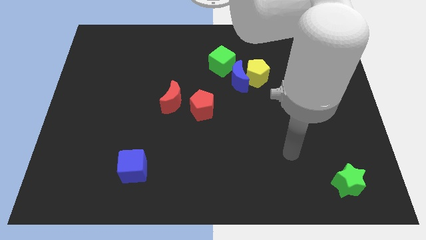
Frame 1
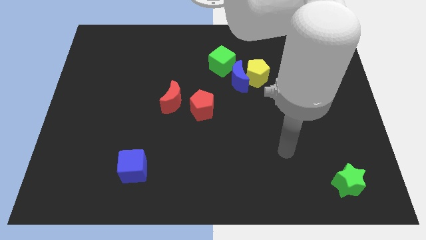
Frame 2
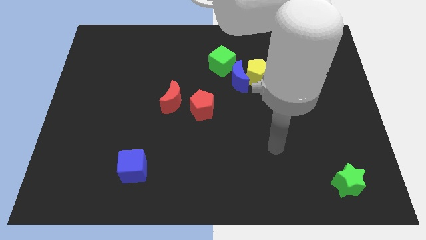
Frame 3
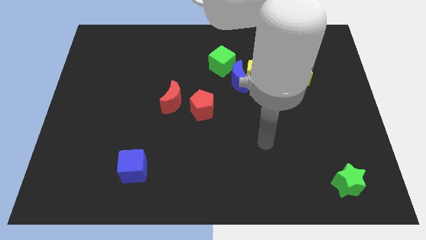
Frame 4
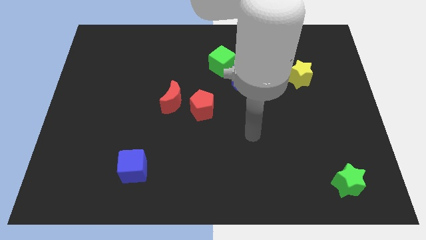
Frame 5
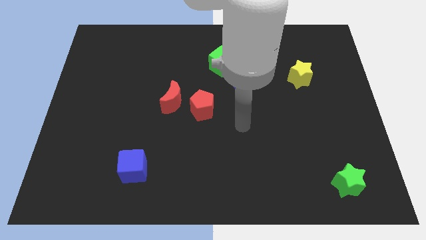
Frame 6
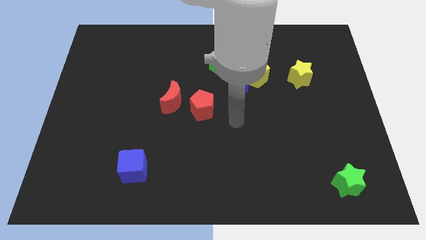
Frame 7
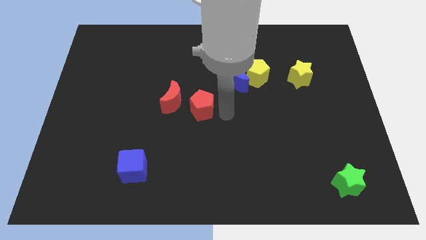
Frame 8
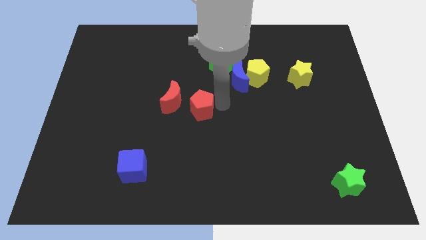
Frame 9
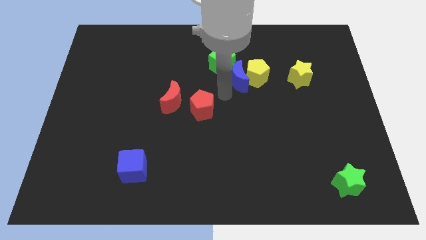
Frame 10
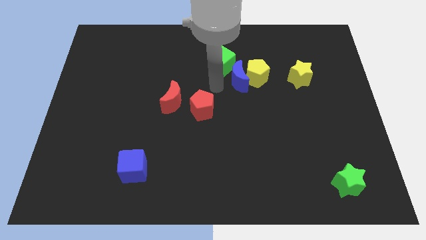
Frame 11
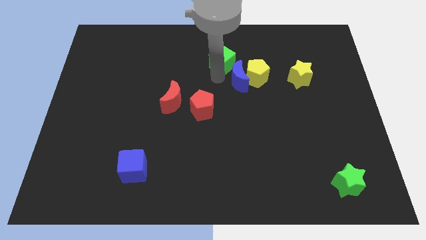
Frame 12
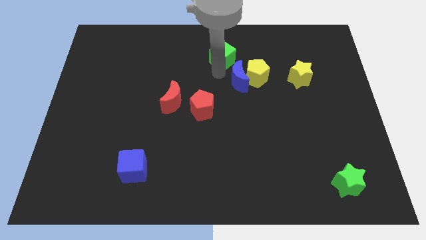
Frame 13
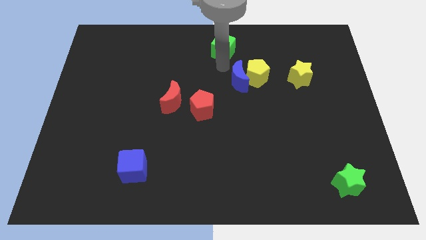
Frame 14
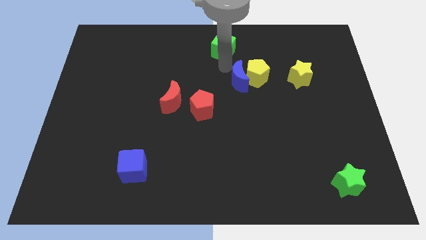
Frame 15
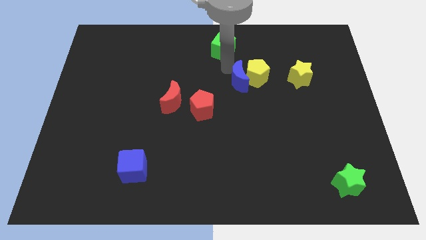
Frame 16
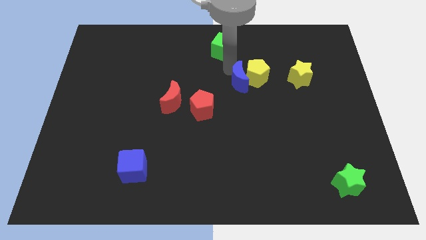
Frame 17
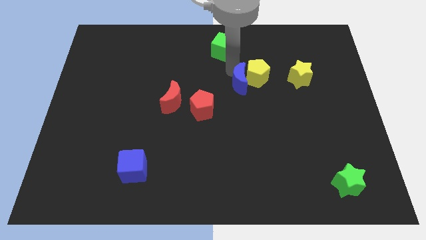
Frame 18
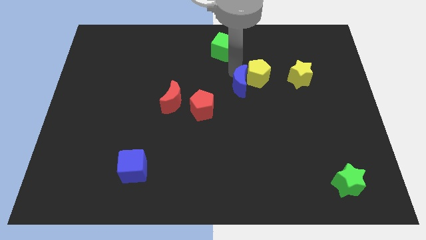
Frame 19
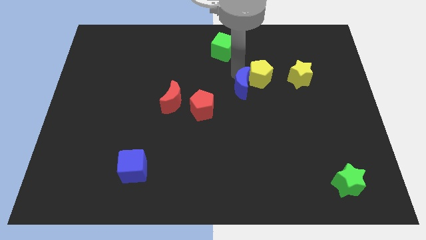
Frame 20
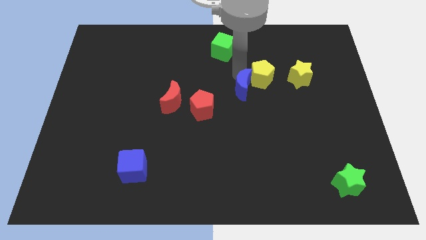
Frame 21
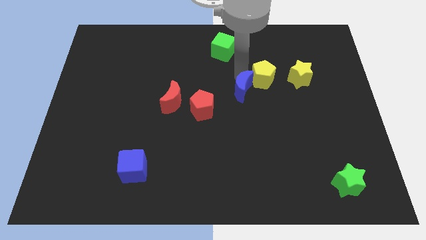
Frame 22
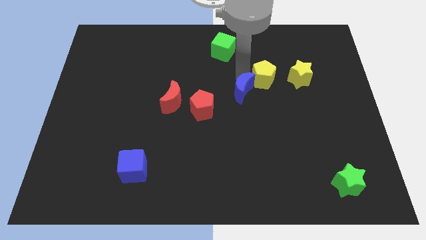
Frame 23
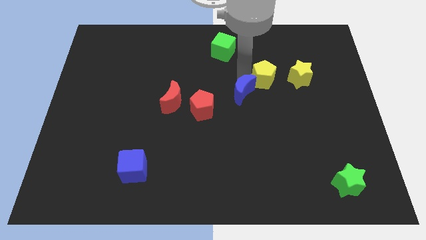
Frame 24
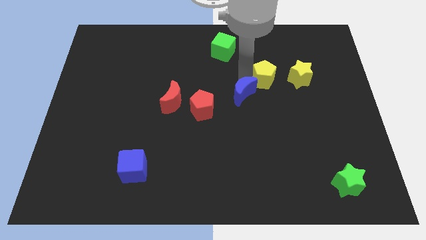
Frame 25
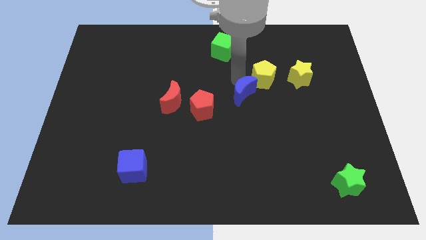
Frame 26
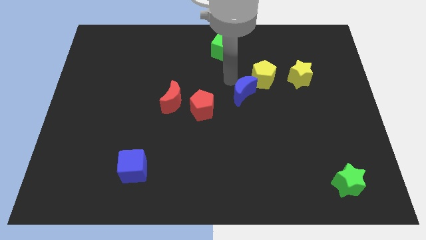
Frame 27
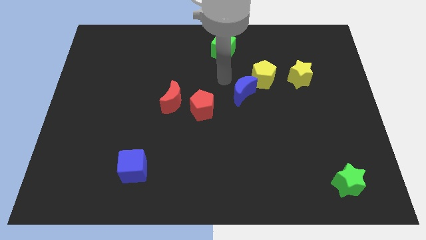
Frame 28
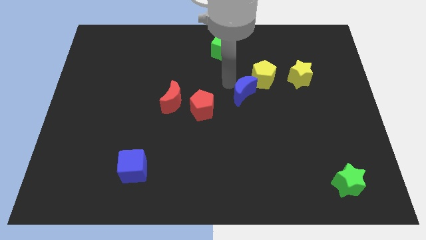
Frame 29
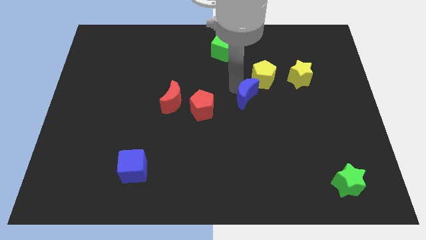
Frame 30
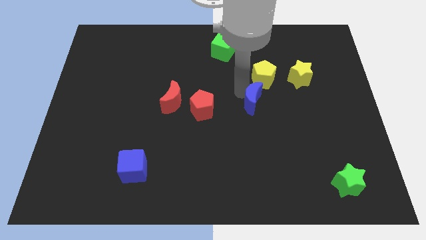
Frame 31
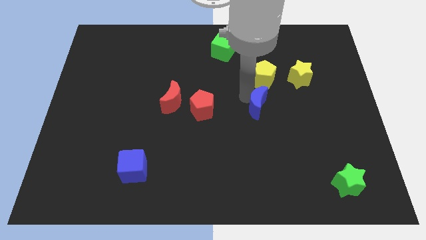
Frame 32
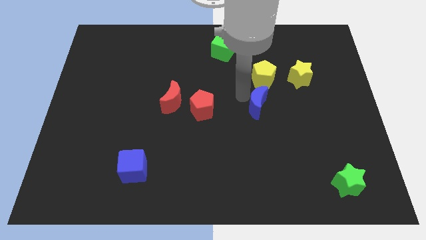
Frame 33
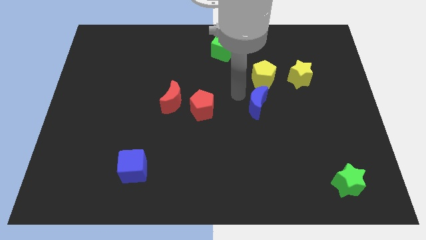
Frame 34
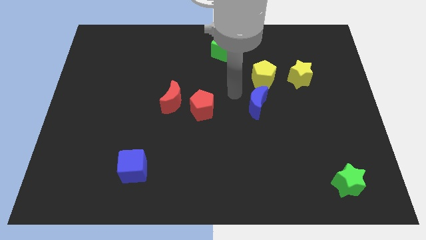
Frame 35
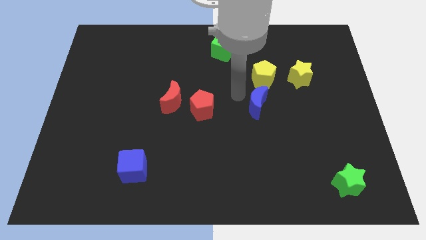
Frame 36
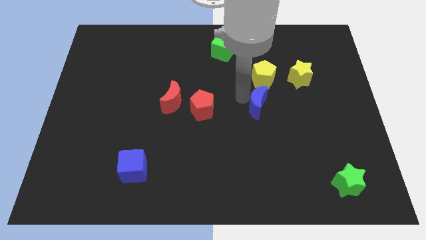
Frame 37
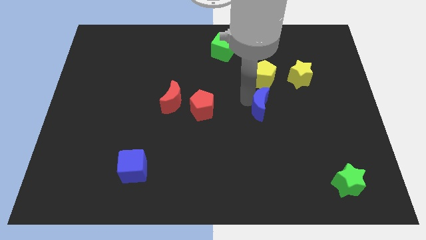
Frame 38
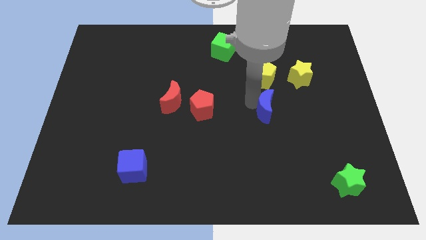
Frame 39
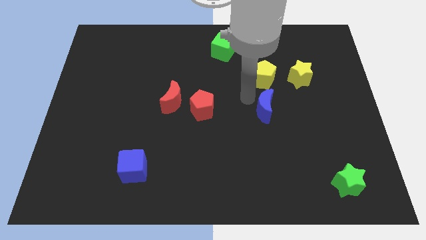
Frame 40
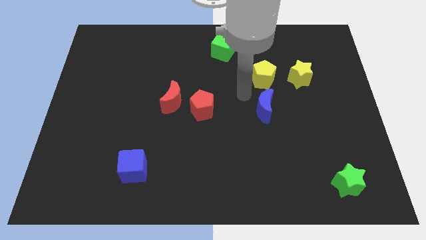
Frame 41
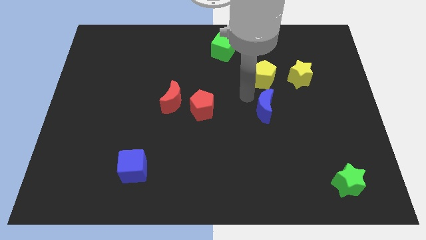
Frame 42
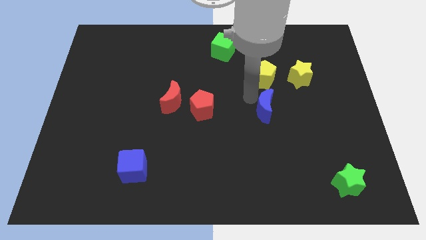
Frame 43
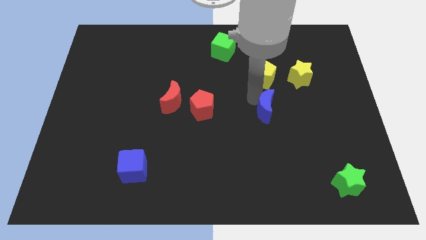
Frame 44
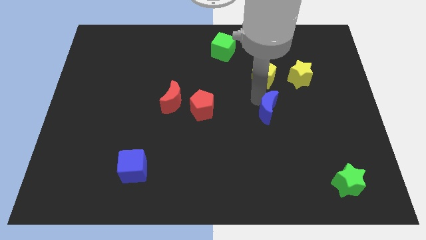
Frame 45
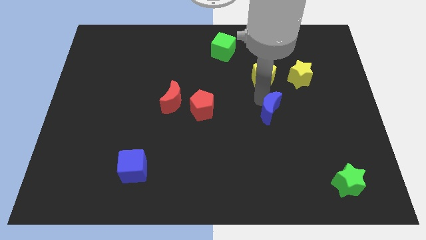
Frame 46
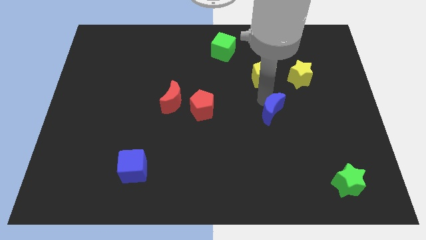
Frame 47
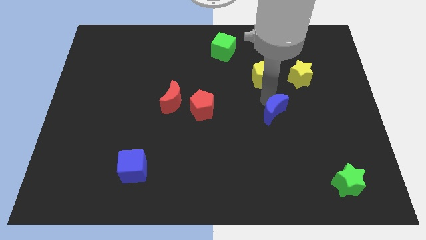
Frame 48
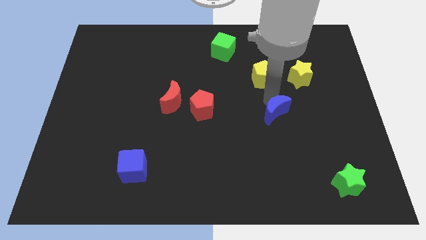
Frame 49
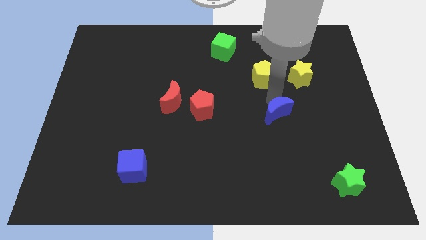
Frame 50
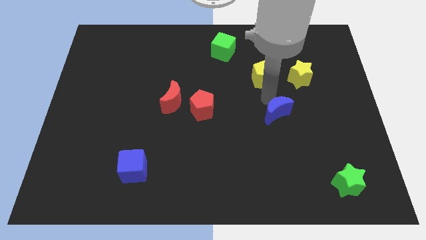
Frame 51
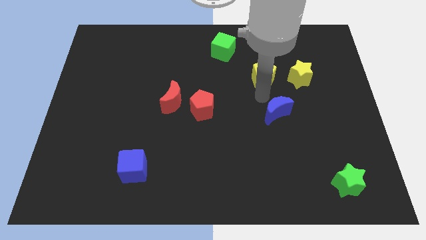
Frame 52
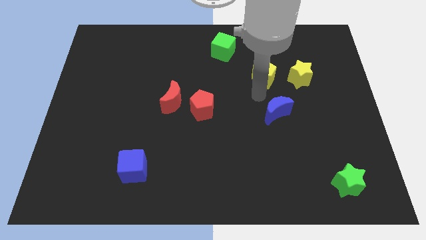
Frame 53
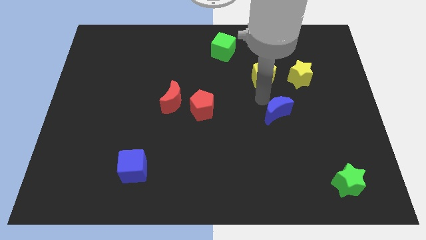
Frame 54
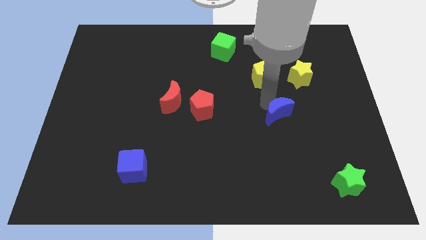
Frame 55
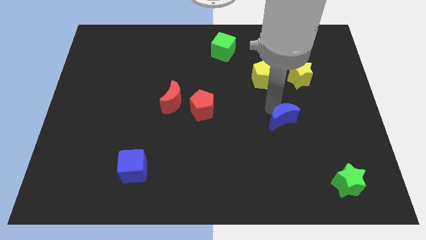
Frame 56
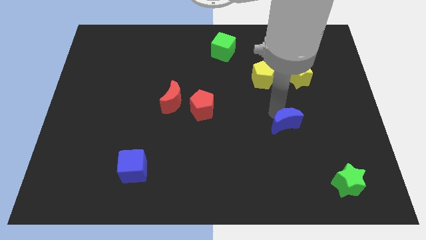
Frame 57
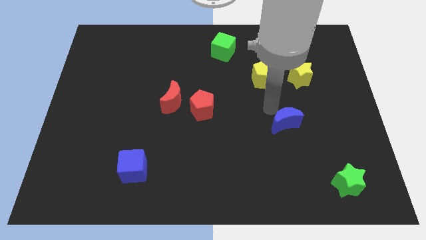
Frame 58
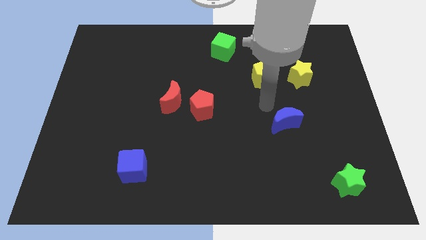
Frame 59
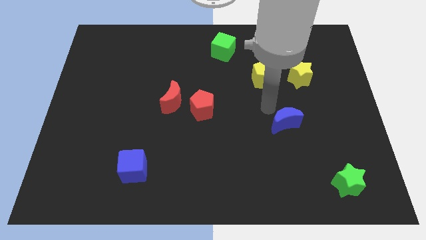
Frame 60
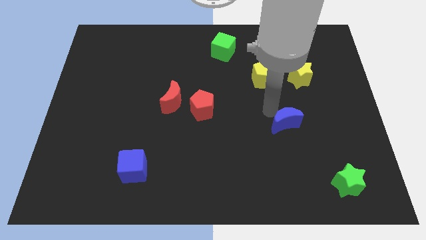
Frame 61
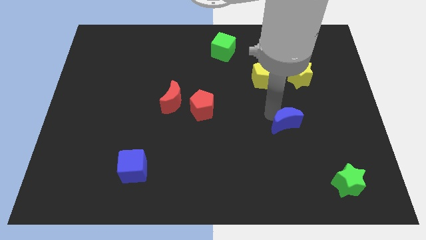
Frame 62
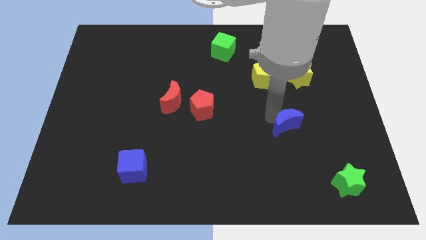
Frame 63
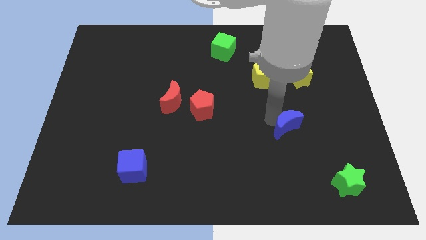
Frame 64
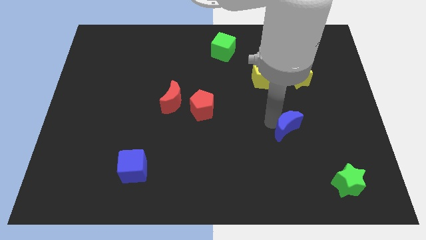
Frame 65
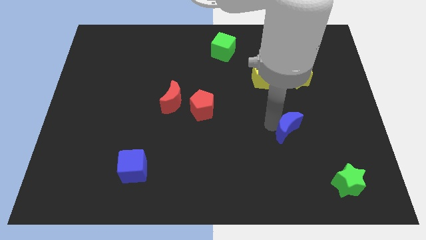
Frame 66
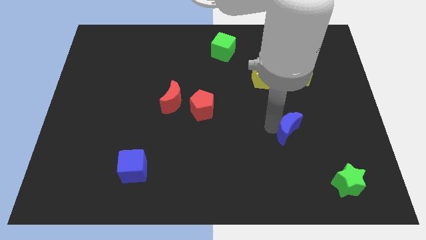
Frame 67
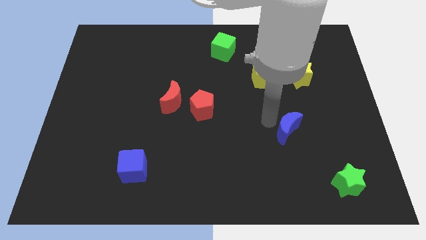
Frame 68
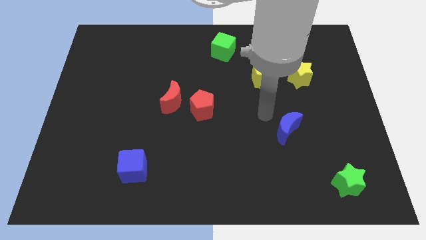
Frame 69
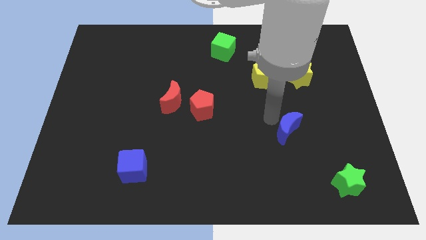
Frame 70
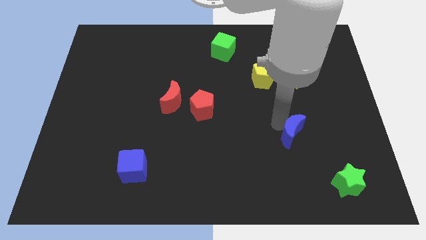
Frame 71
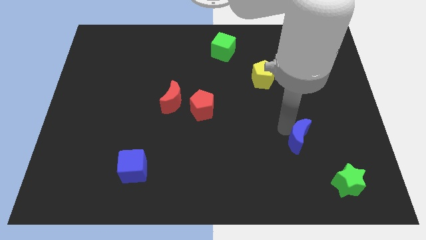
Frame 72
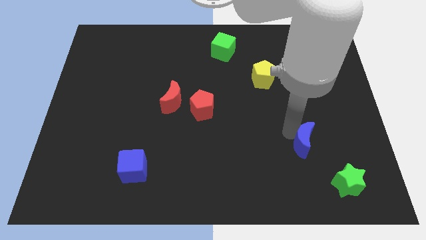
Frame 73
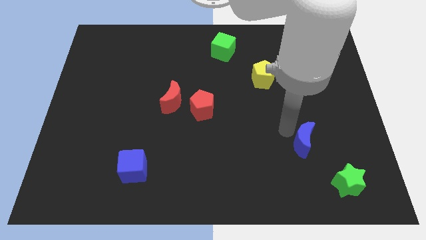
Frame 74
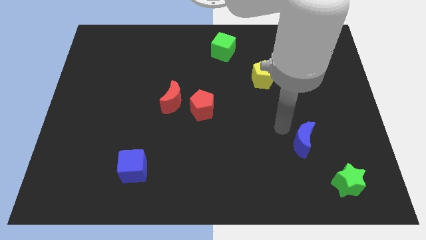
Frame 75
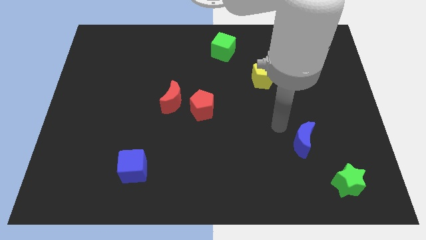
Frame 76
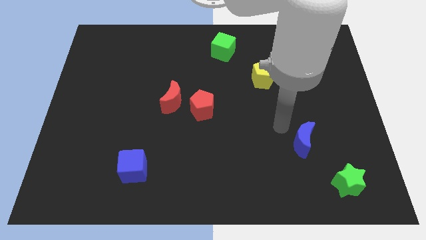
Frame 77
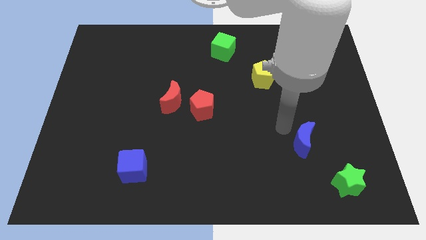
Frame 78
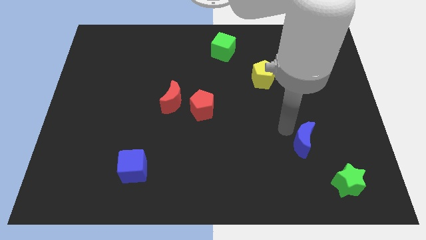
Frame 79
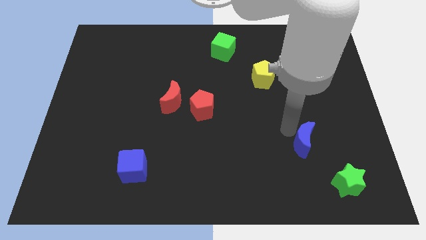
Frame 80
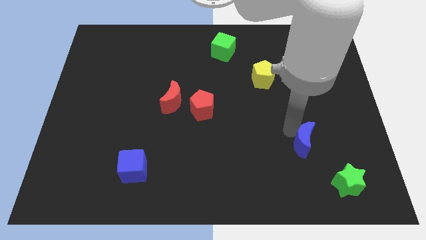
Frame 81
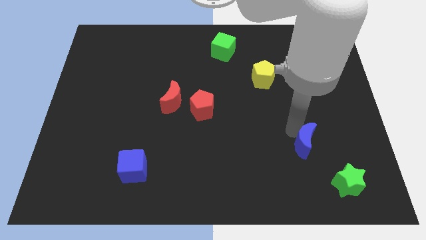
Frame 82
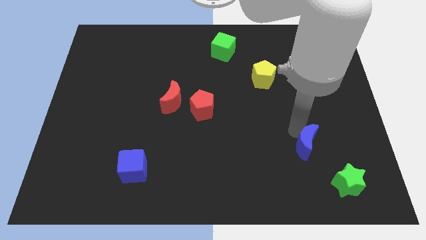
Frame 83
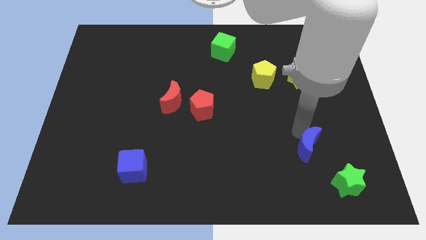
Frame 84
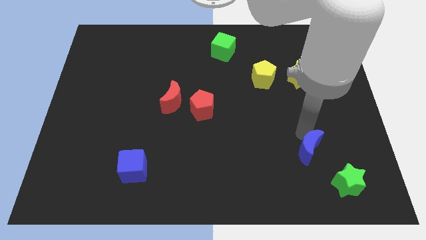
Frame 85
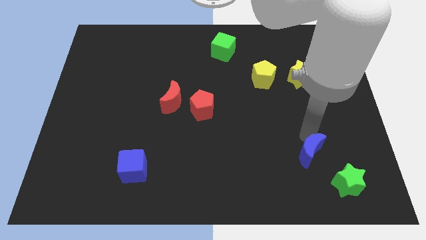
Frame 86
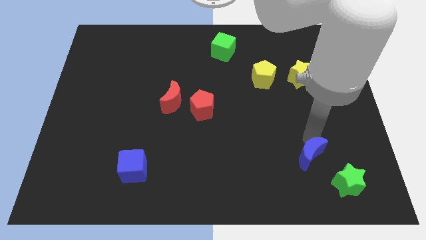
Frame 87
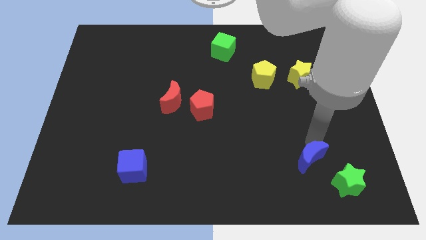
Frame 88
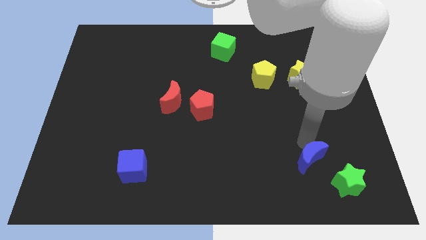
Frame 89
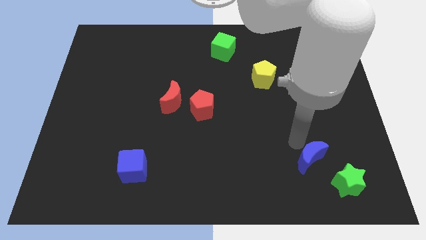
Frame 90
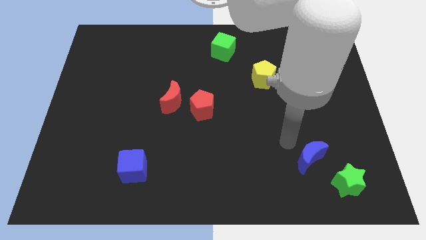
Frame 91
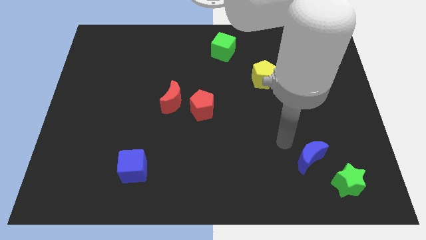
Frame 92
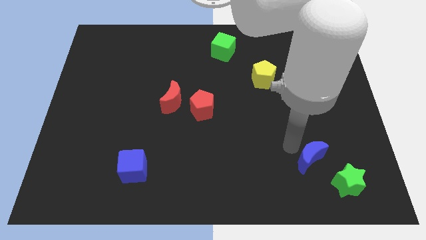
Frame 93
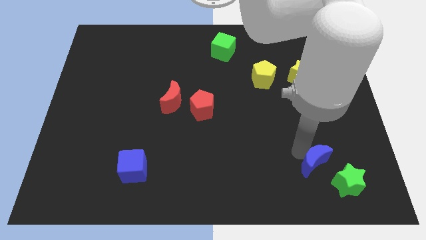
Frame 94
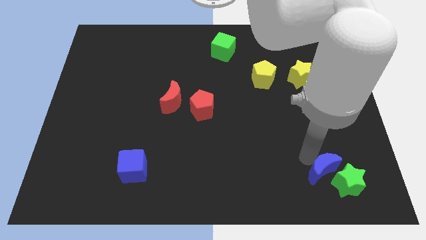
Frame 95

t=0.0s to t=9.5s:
move the blue moon close to the green star
